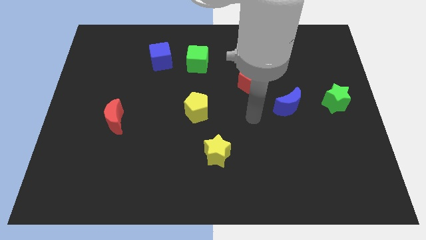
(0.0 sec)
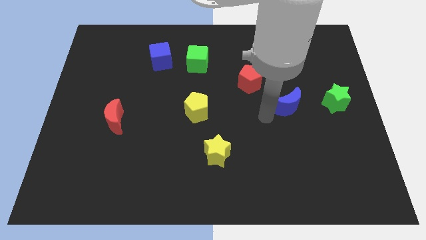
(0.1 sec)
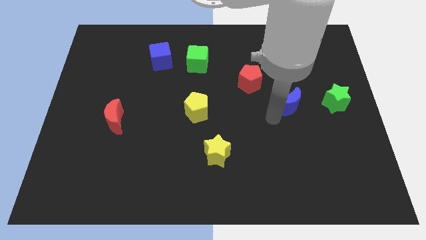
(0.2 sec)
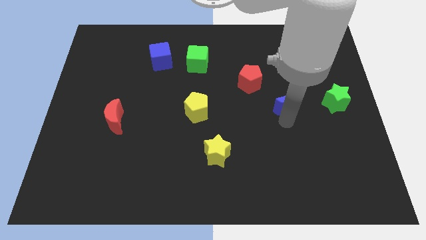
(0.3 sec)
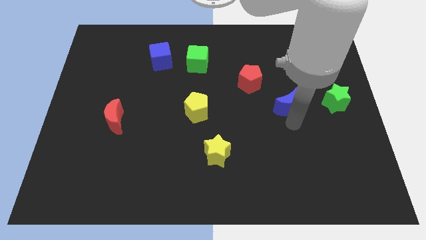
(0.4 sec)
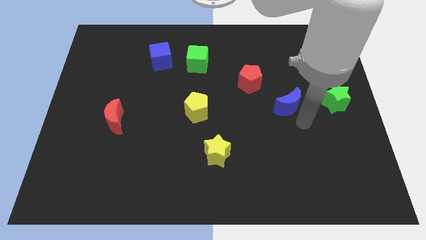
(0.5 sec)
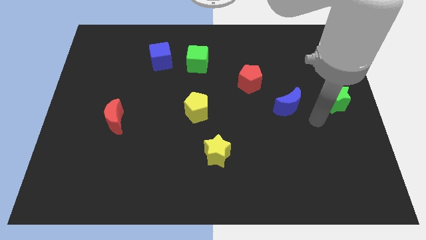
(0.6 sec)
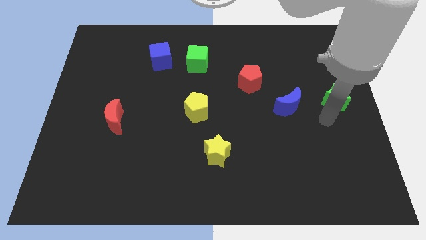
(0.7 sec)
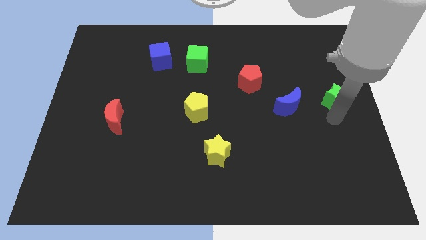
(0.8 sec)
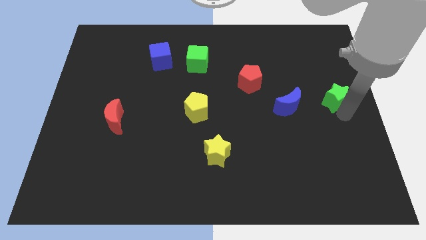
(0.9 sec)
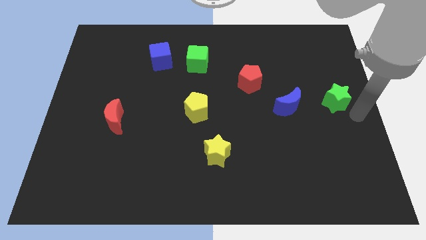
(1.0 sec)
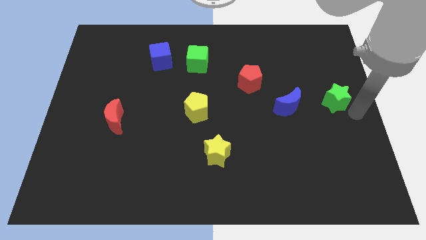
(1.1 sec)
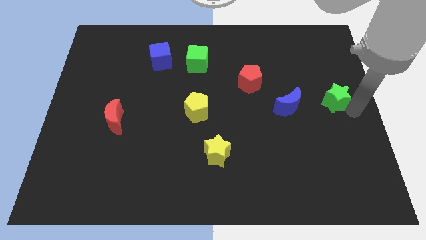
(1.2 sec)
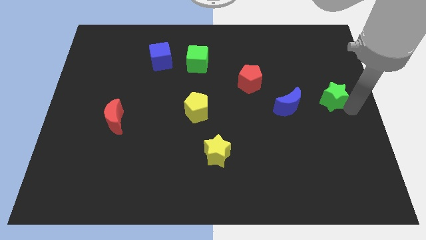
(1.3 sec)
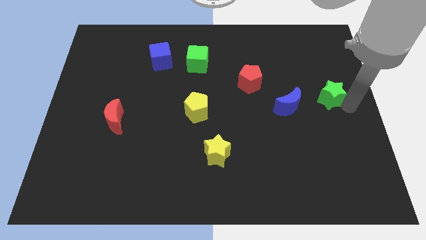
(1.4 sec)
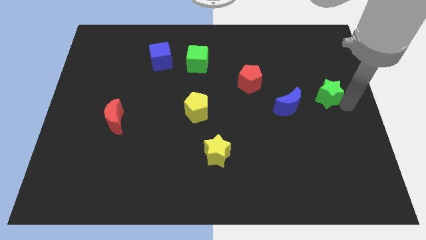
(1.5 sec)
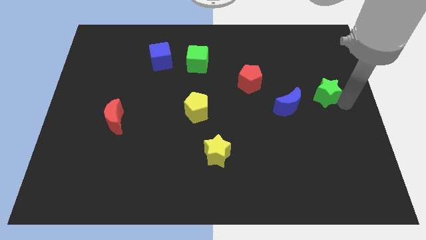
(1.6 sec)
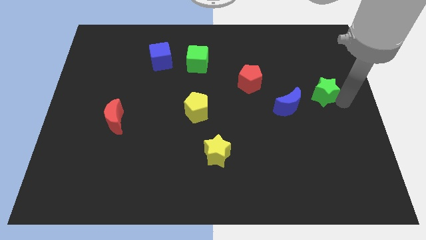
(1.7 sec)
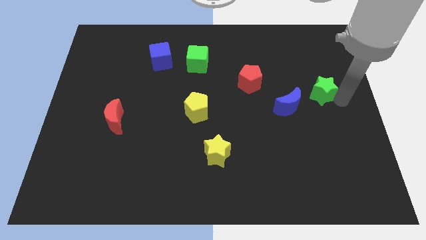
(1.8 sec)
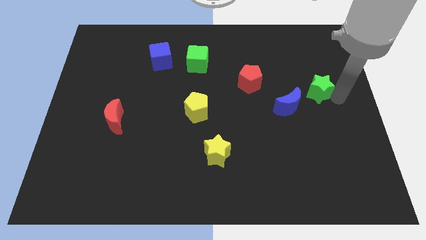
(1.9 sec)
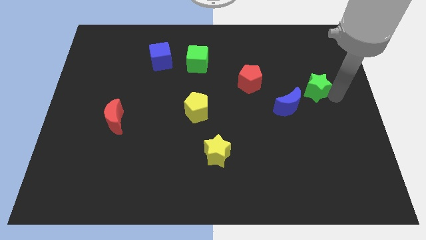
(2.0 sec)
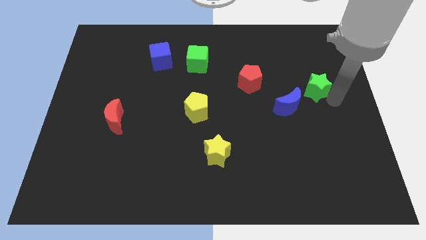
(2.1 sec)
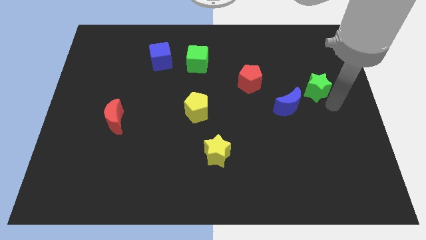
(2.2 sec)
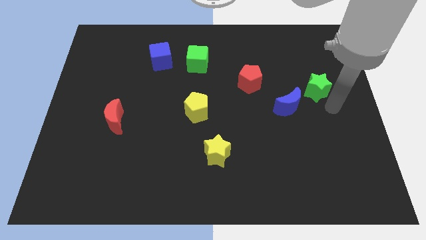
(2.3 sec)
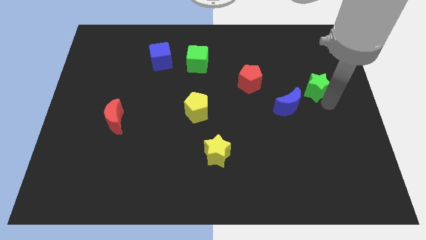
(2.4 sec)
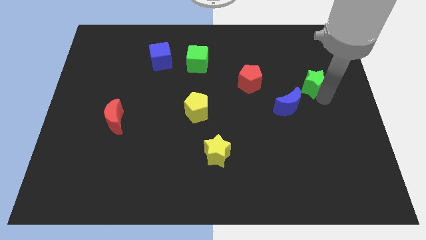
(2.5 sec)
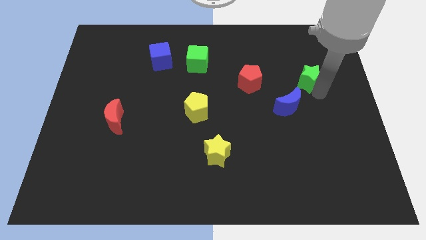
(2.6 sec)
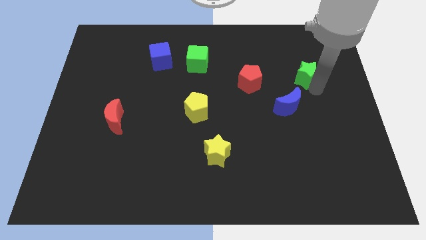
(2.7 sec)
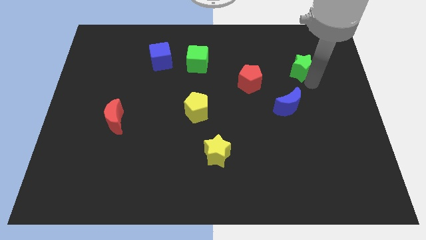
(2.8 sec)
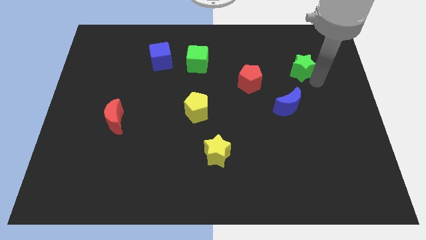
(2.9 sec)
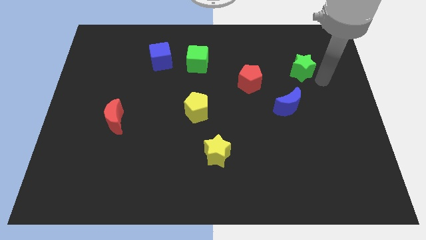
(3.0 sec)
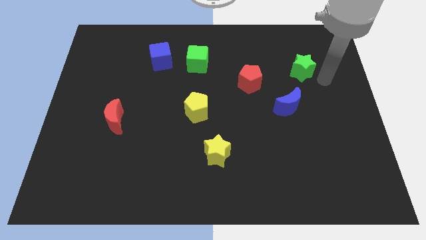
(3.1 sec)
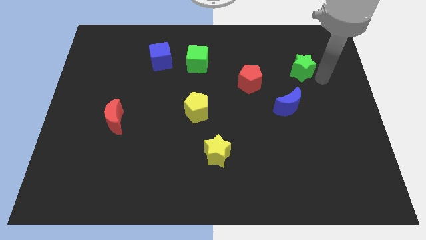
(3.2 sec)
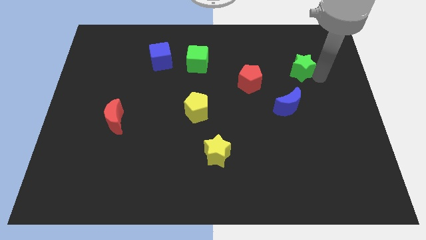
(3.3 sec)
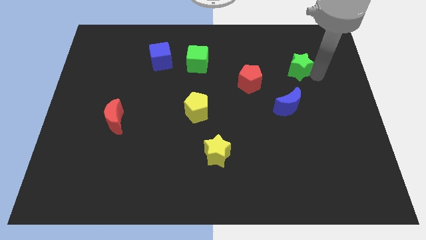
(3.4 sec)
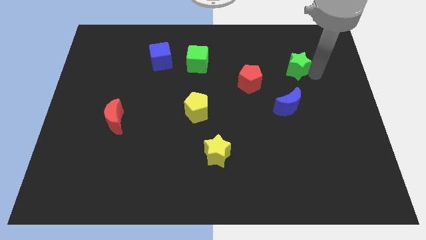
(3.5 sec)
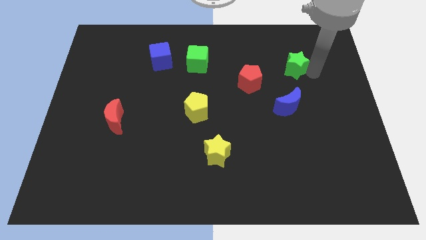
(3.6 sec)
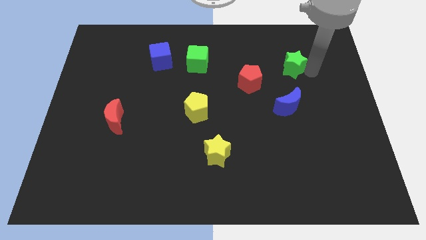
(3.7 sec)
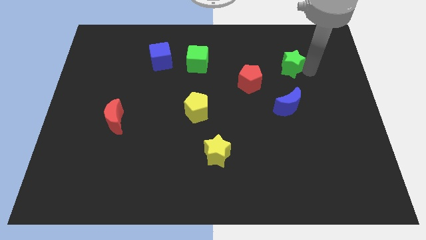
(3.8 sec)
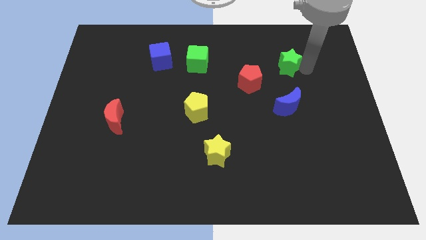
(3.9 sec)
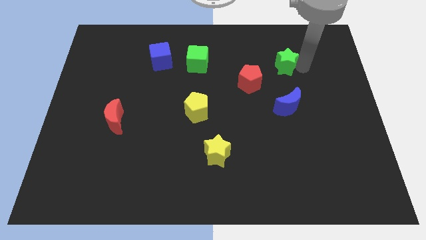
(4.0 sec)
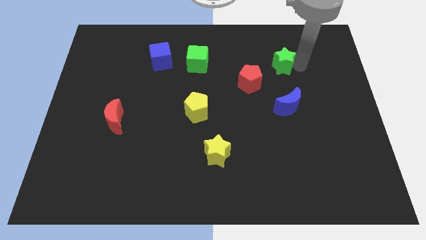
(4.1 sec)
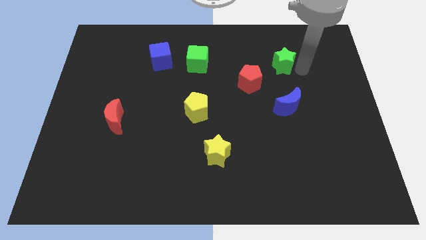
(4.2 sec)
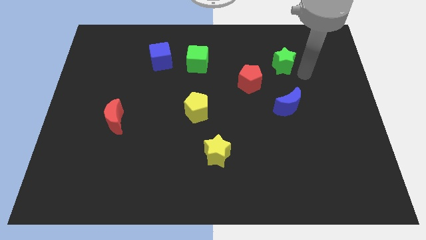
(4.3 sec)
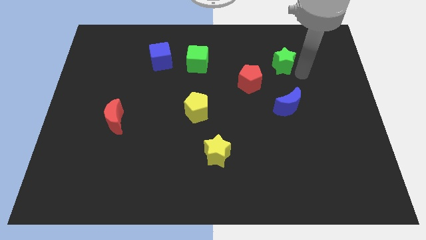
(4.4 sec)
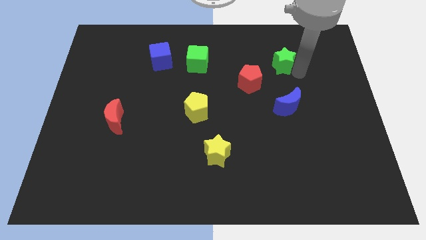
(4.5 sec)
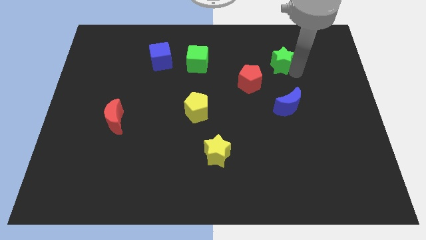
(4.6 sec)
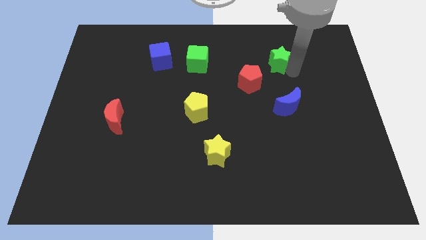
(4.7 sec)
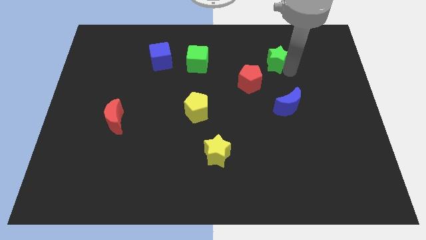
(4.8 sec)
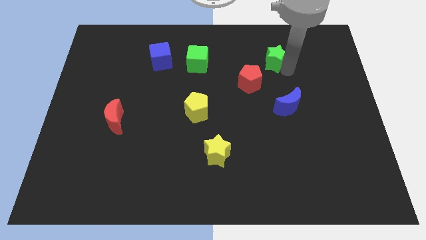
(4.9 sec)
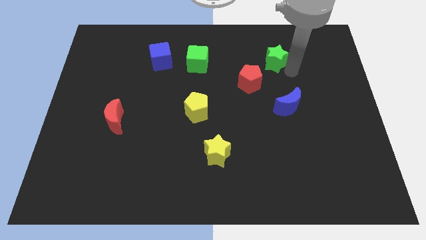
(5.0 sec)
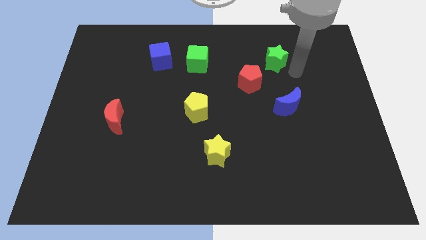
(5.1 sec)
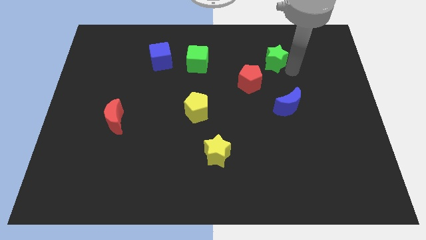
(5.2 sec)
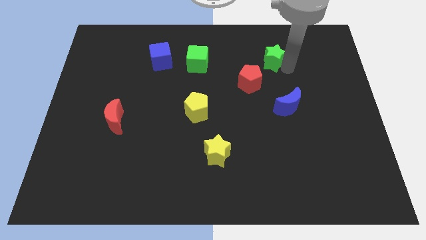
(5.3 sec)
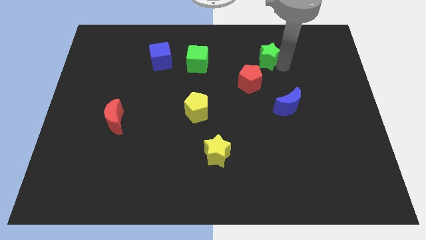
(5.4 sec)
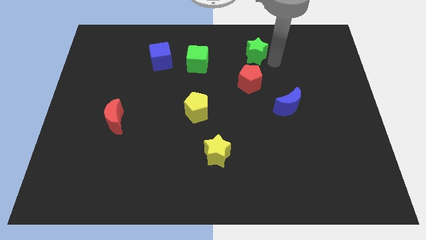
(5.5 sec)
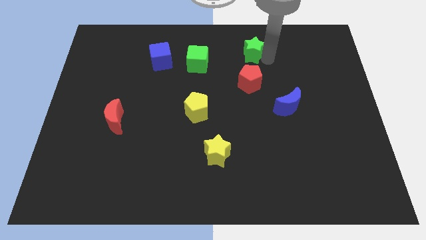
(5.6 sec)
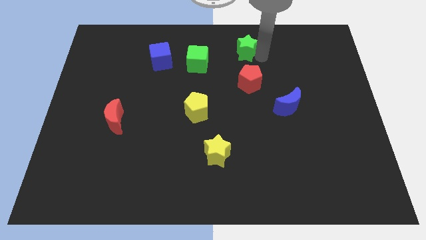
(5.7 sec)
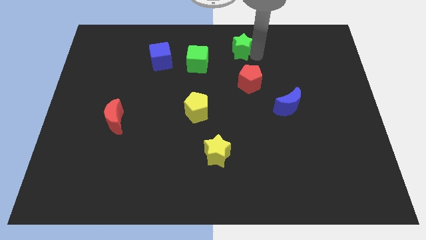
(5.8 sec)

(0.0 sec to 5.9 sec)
push the green star to the top
